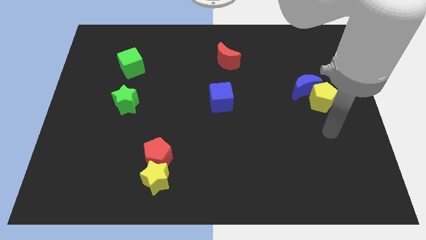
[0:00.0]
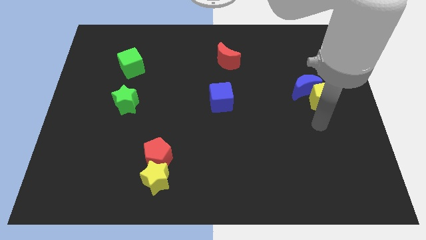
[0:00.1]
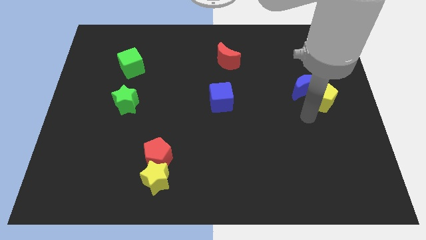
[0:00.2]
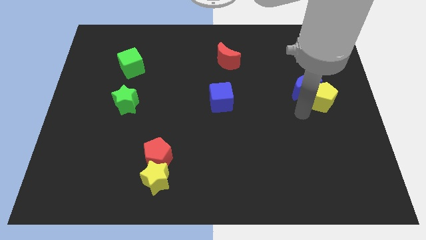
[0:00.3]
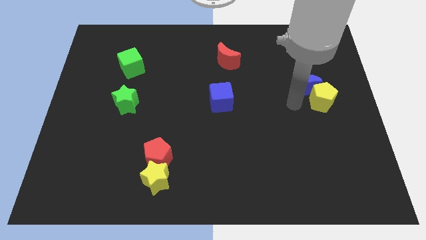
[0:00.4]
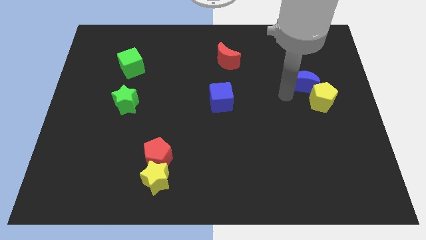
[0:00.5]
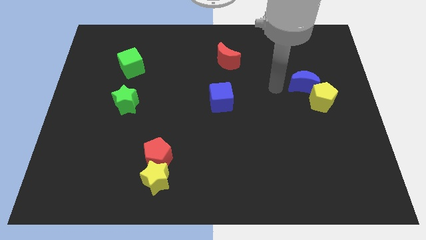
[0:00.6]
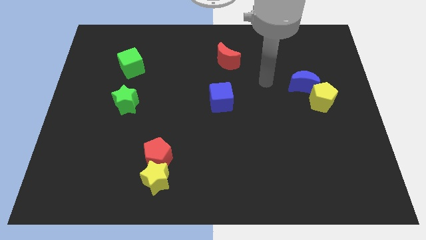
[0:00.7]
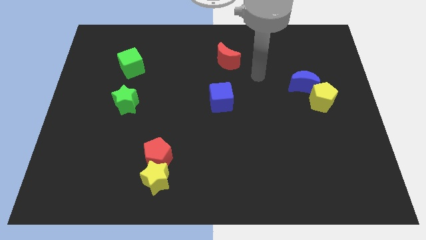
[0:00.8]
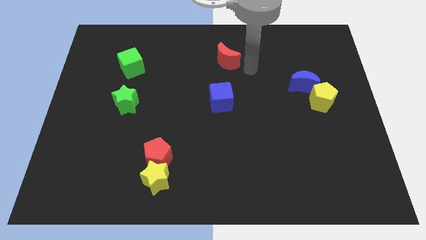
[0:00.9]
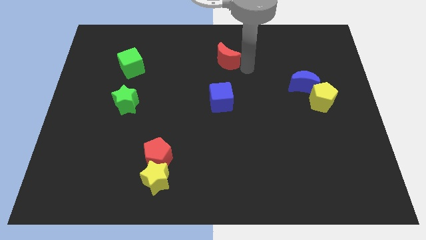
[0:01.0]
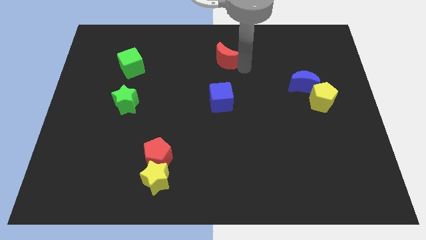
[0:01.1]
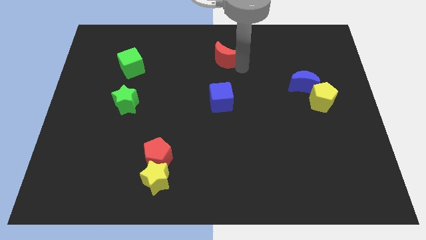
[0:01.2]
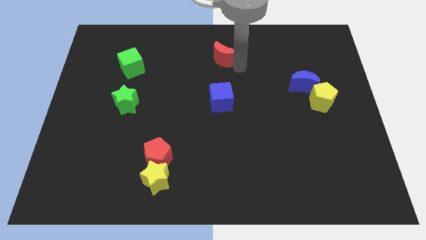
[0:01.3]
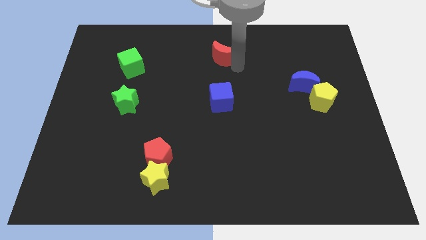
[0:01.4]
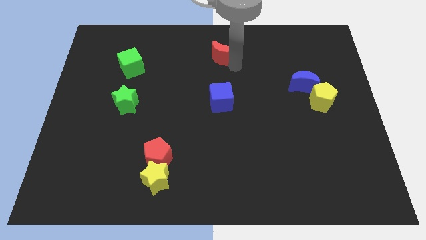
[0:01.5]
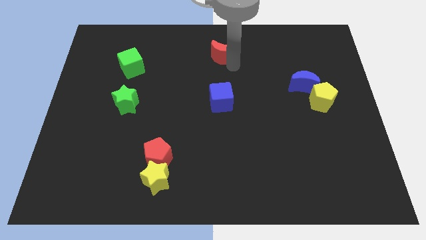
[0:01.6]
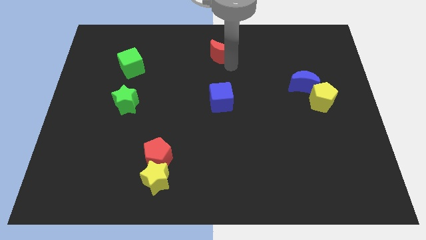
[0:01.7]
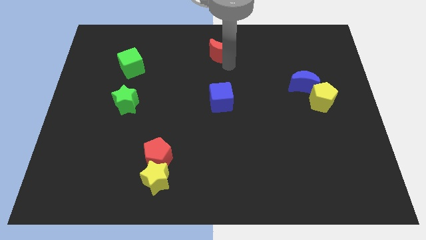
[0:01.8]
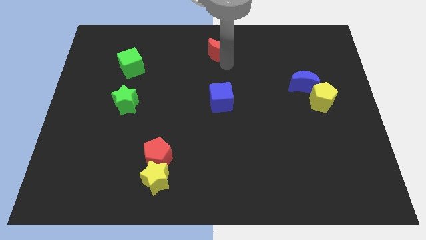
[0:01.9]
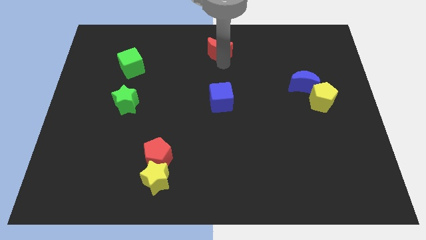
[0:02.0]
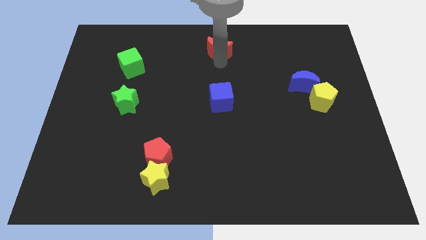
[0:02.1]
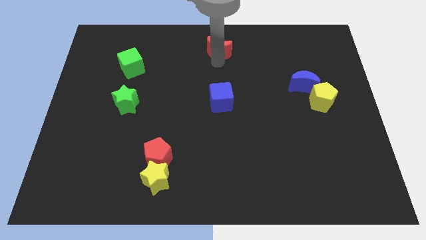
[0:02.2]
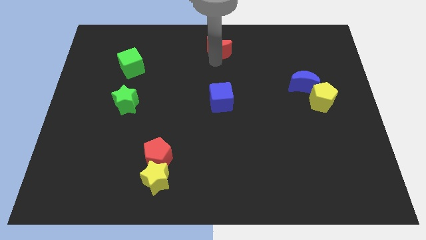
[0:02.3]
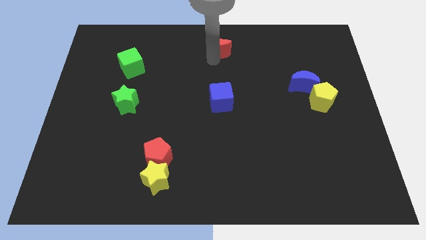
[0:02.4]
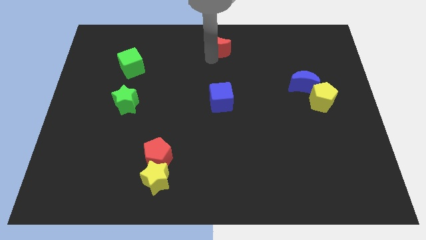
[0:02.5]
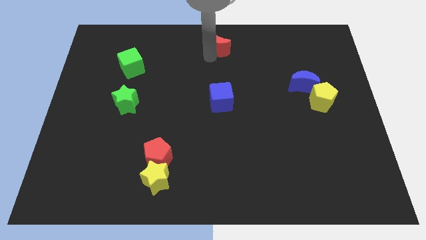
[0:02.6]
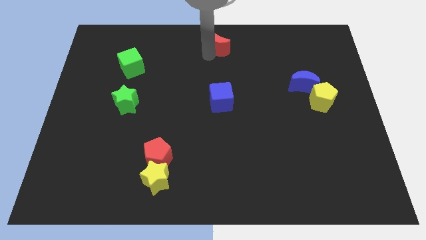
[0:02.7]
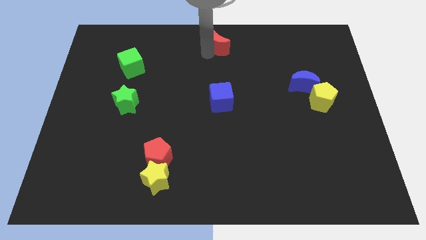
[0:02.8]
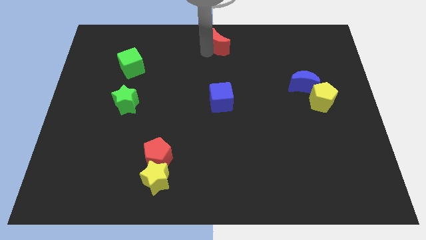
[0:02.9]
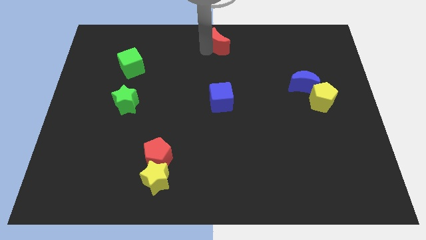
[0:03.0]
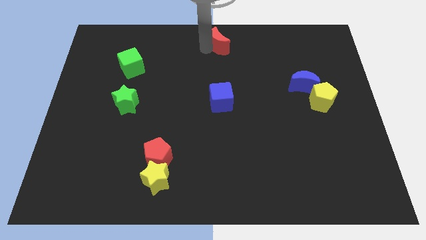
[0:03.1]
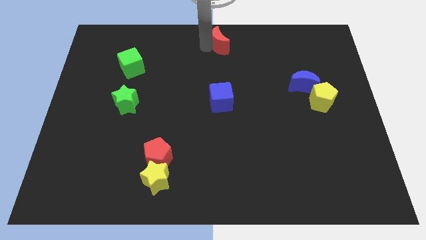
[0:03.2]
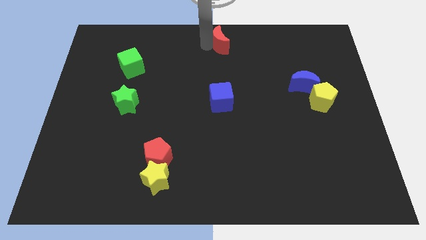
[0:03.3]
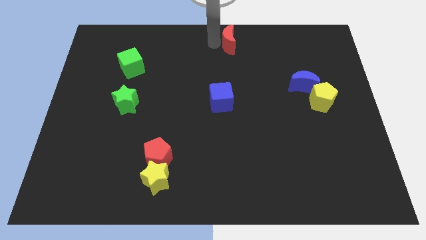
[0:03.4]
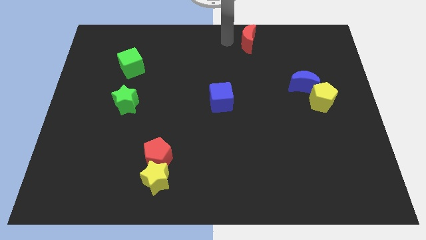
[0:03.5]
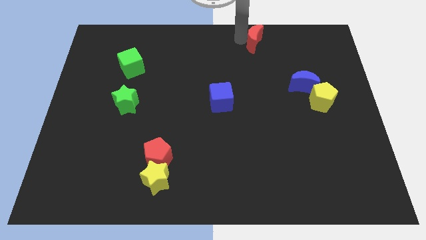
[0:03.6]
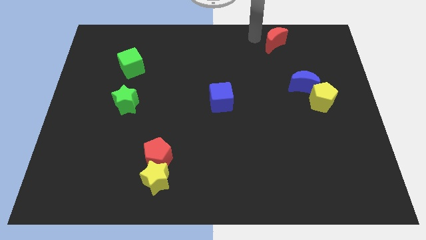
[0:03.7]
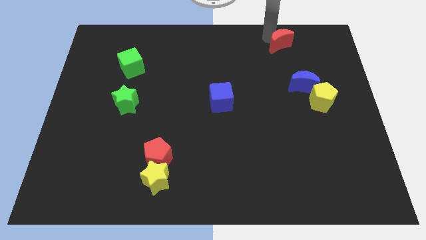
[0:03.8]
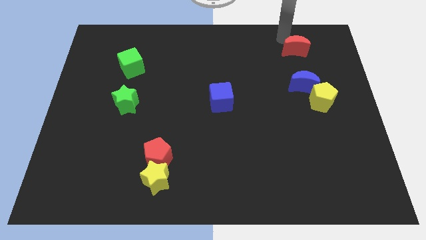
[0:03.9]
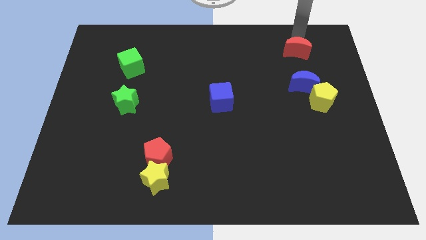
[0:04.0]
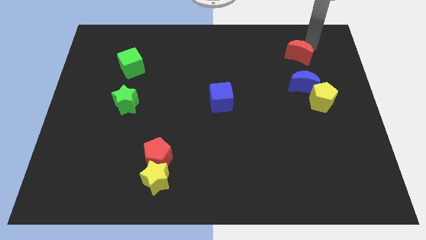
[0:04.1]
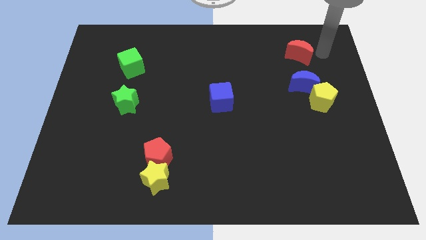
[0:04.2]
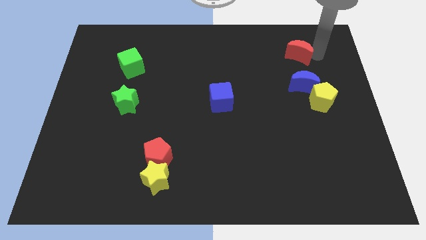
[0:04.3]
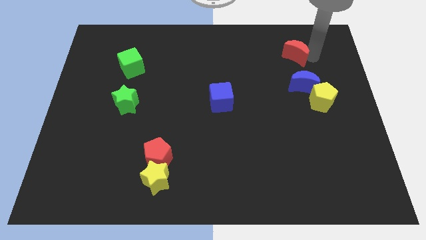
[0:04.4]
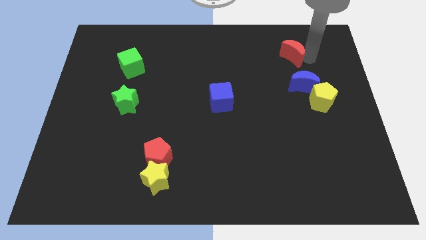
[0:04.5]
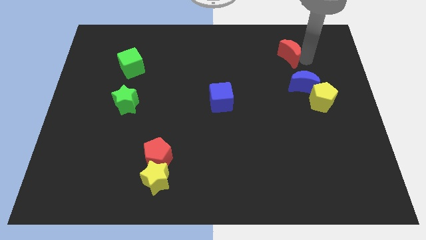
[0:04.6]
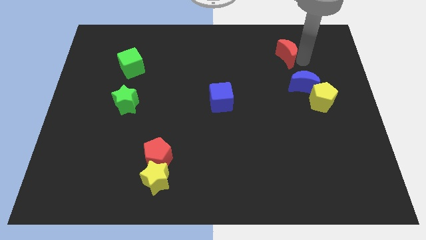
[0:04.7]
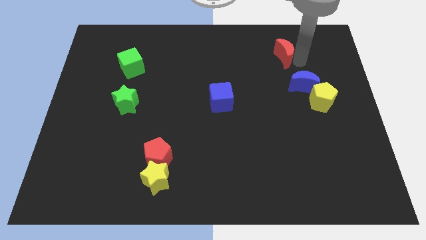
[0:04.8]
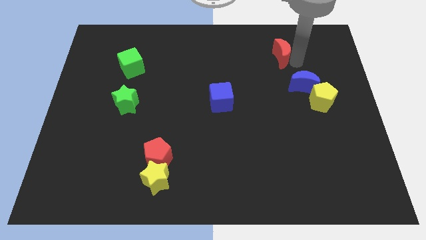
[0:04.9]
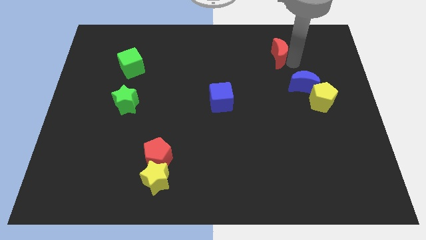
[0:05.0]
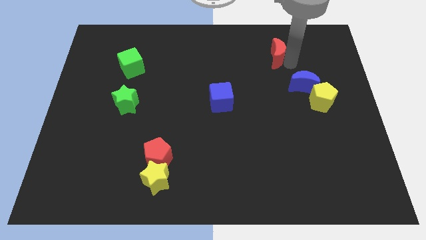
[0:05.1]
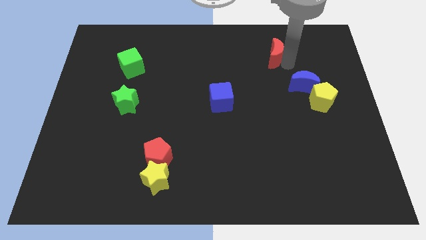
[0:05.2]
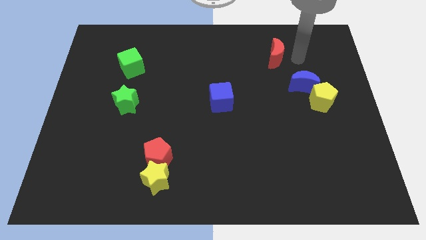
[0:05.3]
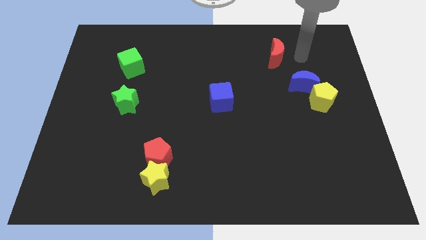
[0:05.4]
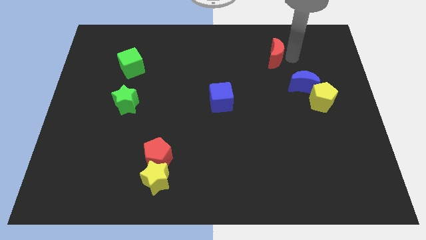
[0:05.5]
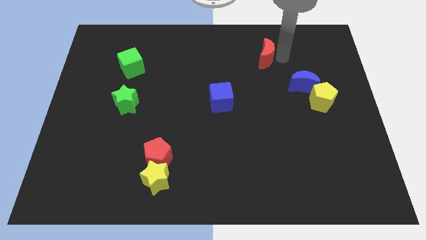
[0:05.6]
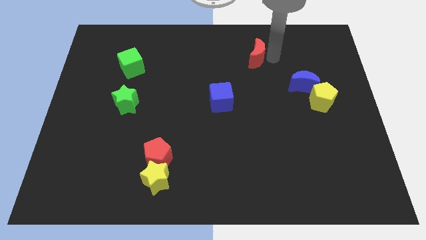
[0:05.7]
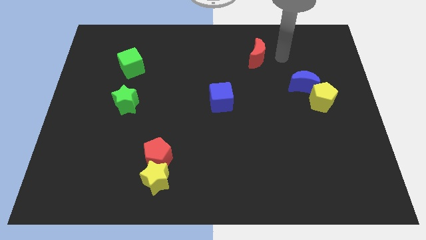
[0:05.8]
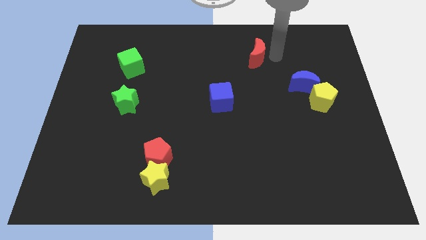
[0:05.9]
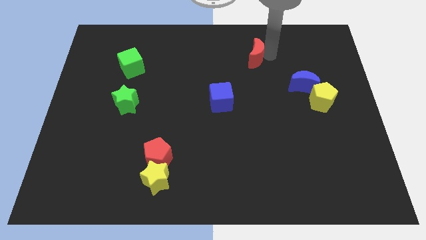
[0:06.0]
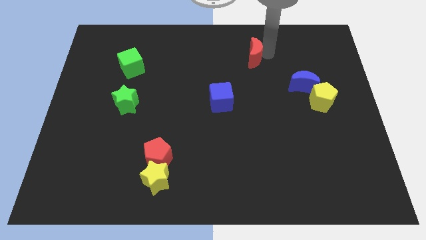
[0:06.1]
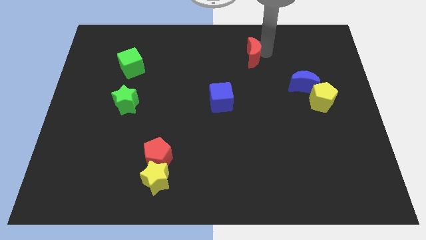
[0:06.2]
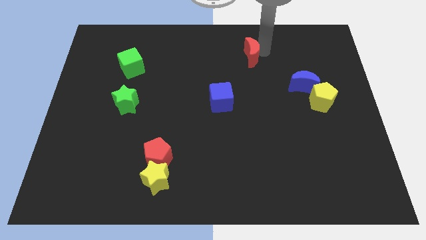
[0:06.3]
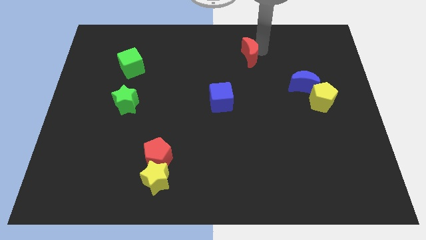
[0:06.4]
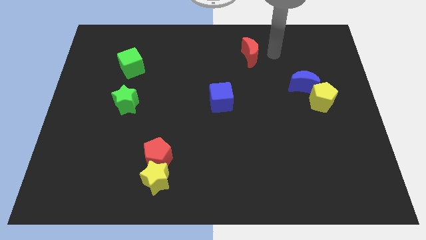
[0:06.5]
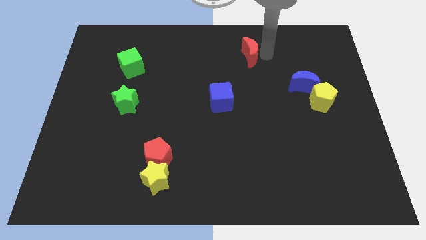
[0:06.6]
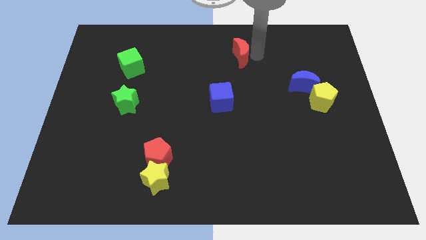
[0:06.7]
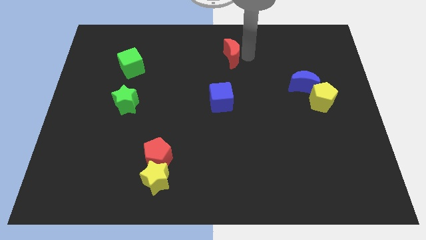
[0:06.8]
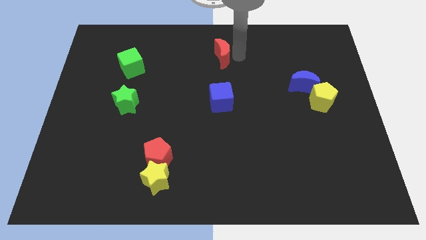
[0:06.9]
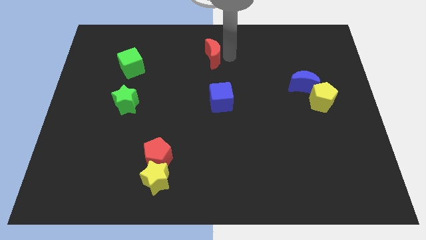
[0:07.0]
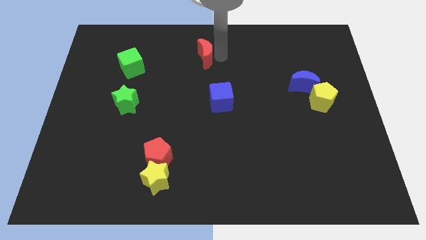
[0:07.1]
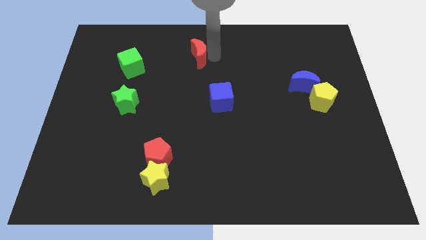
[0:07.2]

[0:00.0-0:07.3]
slightly slide the red moon left

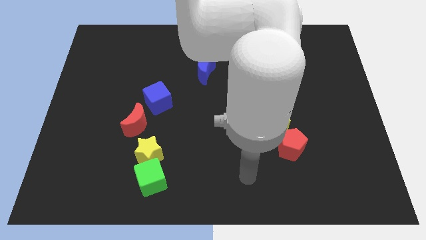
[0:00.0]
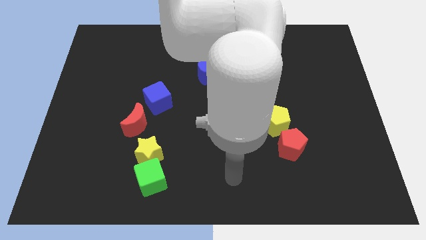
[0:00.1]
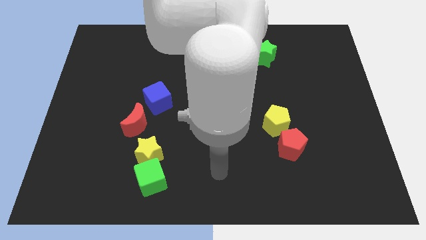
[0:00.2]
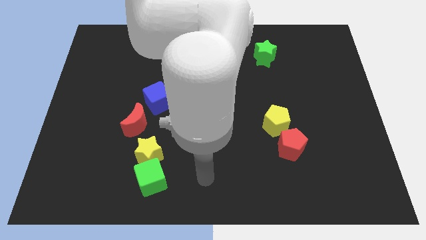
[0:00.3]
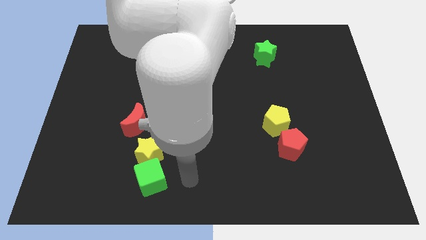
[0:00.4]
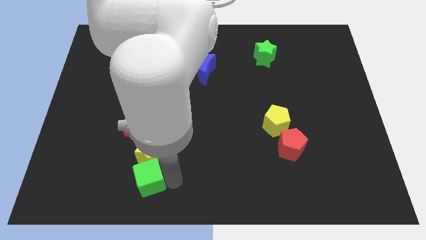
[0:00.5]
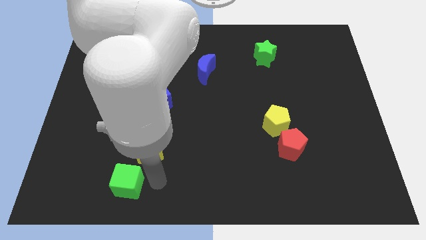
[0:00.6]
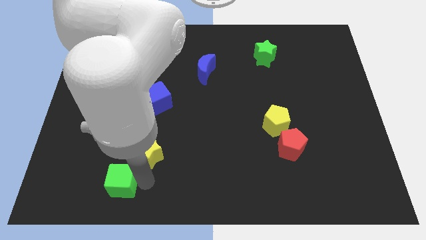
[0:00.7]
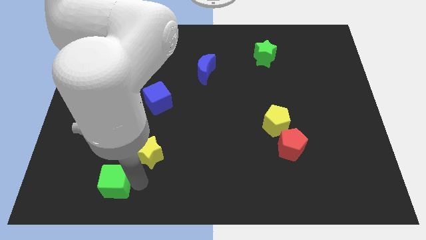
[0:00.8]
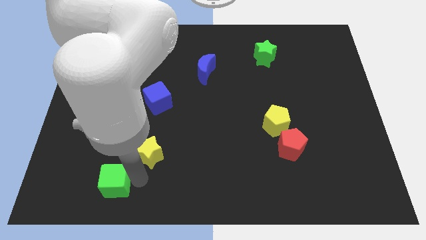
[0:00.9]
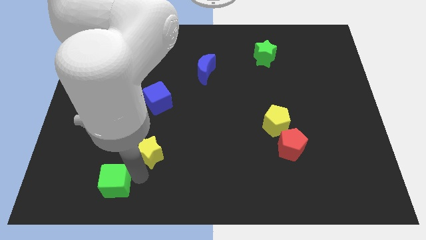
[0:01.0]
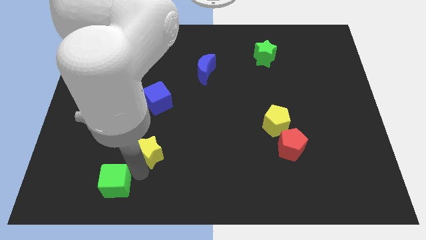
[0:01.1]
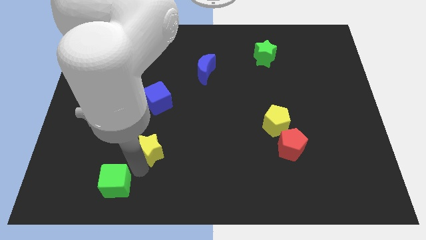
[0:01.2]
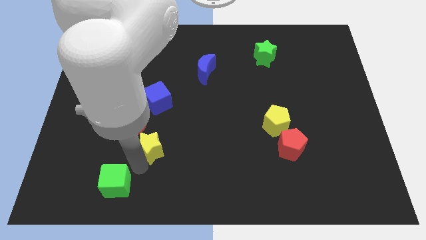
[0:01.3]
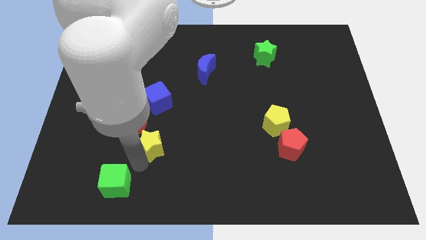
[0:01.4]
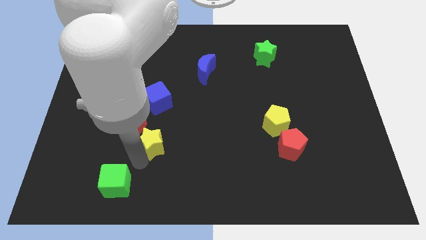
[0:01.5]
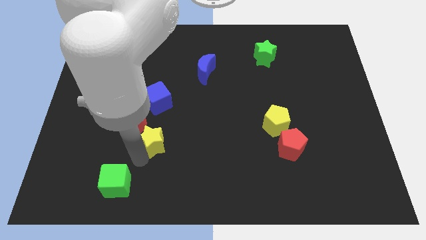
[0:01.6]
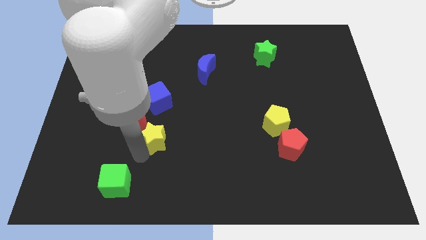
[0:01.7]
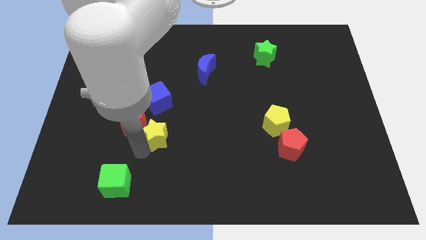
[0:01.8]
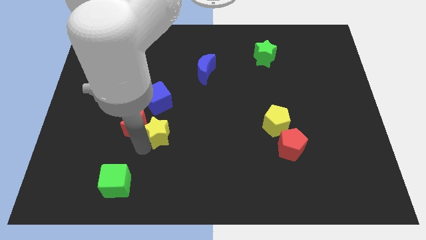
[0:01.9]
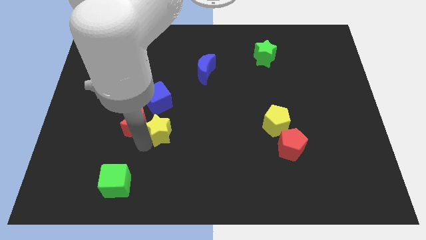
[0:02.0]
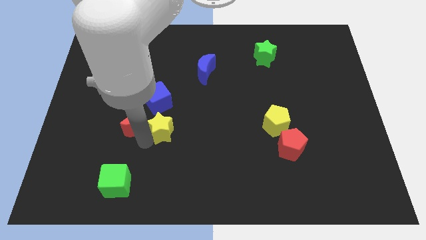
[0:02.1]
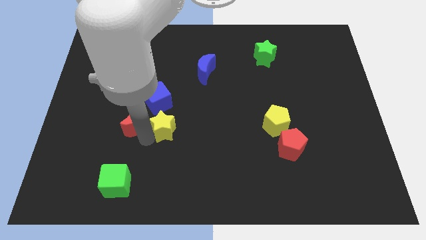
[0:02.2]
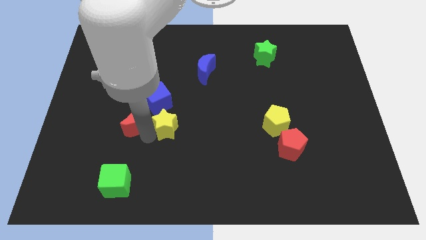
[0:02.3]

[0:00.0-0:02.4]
move the yellow star up slightly
